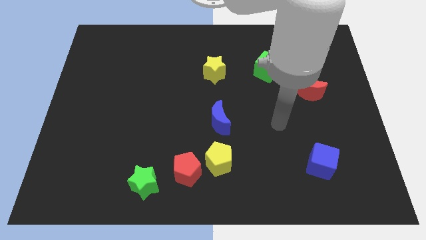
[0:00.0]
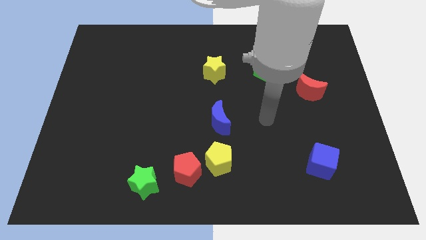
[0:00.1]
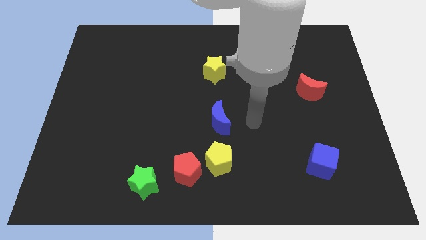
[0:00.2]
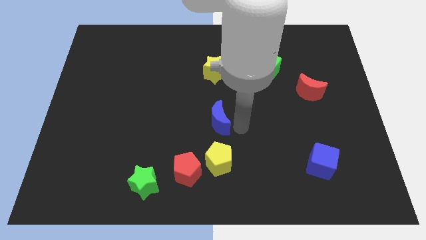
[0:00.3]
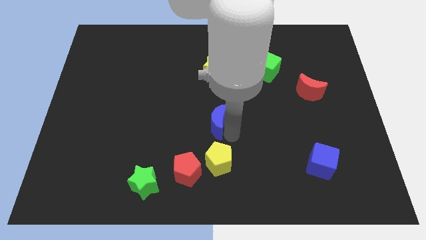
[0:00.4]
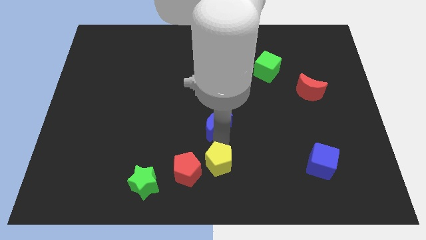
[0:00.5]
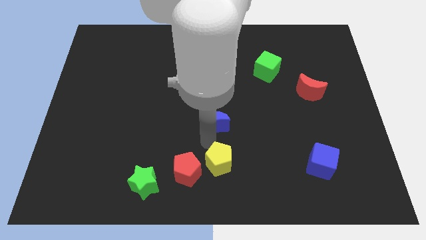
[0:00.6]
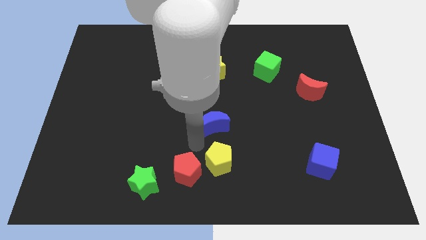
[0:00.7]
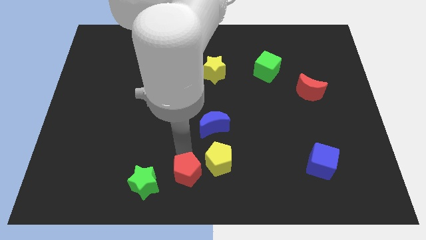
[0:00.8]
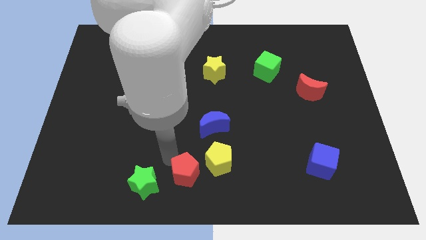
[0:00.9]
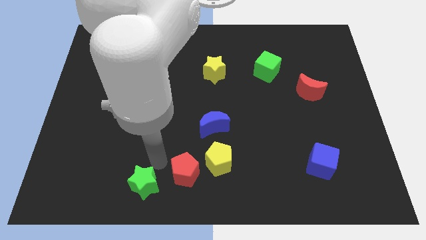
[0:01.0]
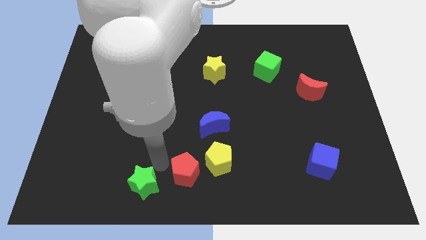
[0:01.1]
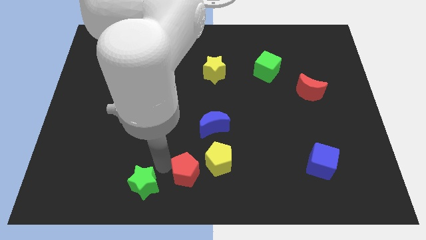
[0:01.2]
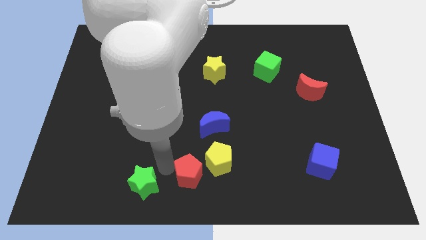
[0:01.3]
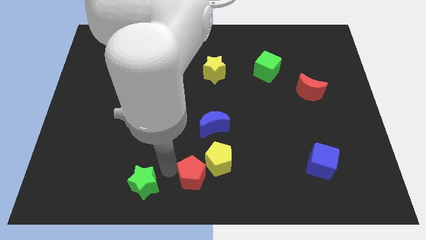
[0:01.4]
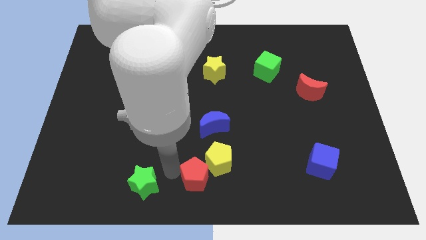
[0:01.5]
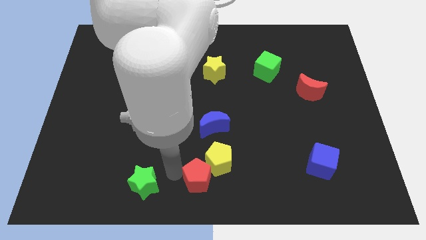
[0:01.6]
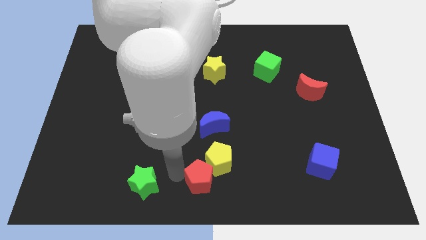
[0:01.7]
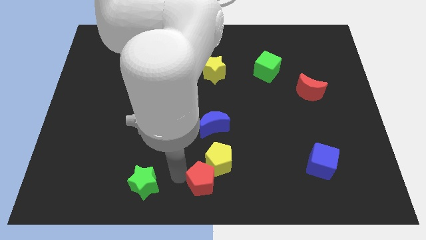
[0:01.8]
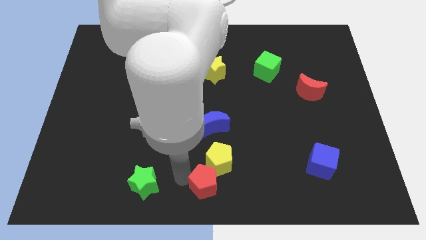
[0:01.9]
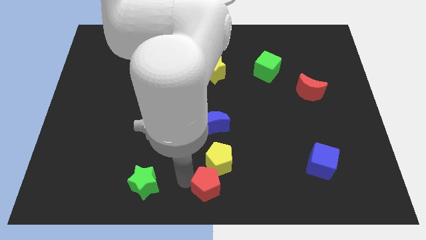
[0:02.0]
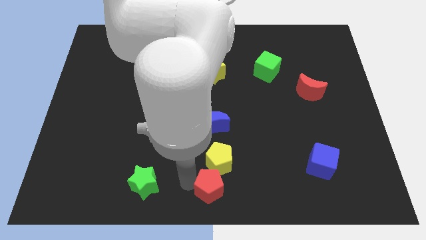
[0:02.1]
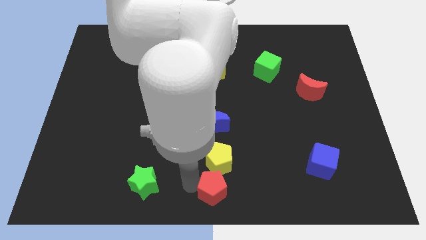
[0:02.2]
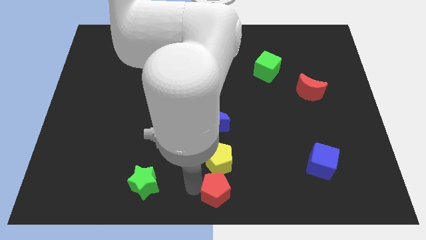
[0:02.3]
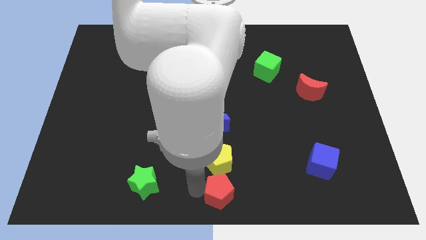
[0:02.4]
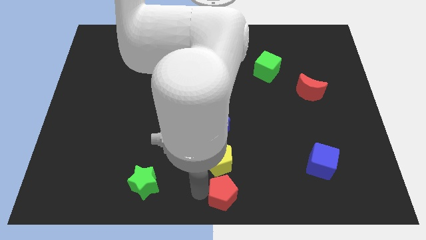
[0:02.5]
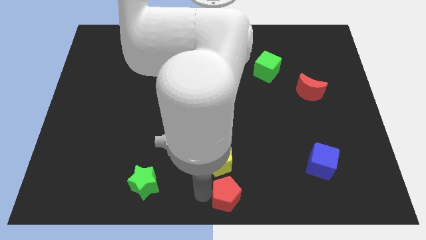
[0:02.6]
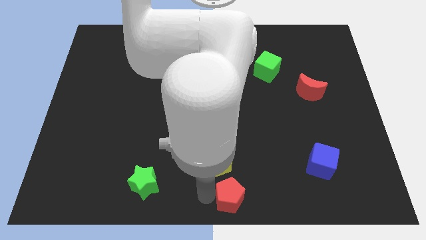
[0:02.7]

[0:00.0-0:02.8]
slide the red pentagon somewhat to the right

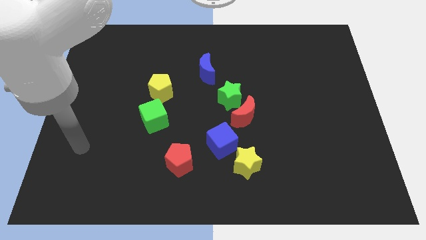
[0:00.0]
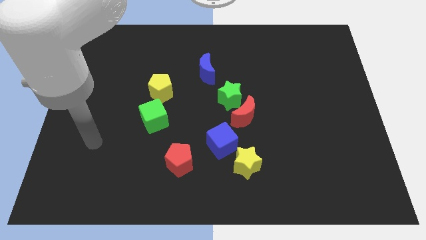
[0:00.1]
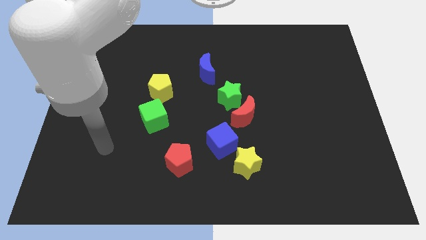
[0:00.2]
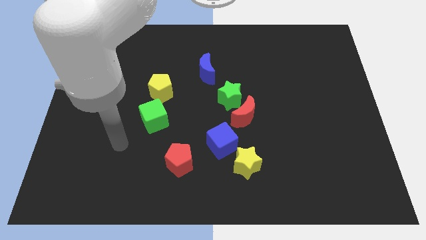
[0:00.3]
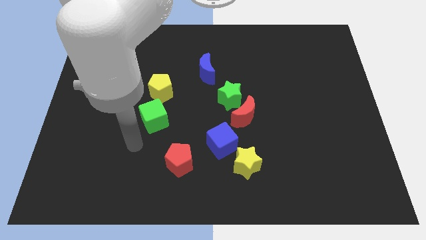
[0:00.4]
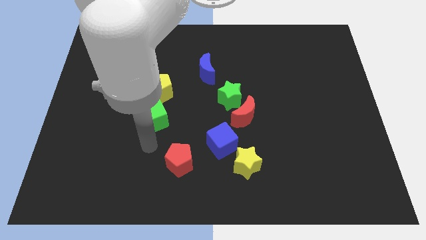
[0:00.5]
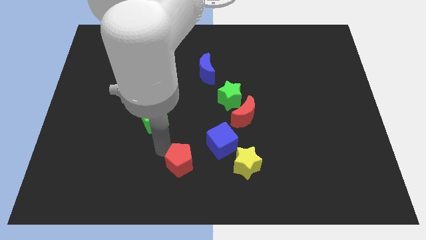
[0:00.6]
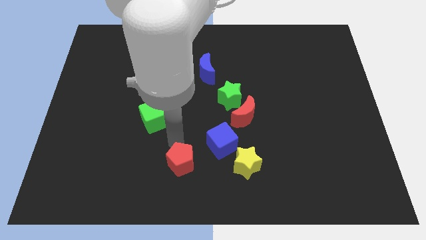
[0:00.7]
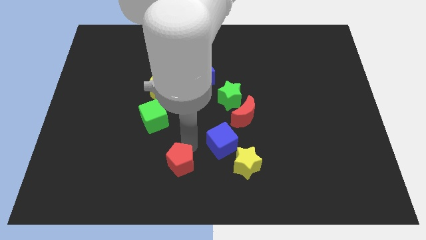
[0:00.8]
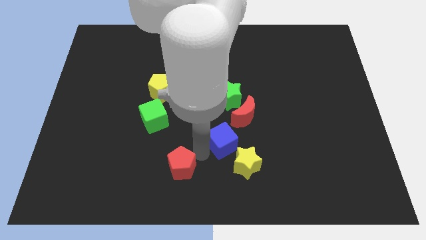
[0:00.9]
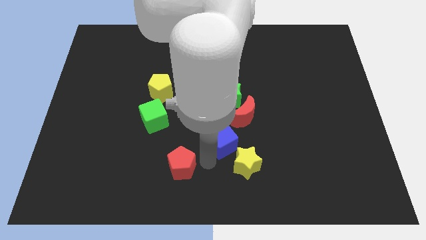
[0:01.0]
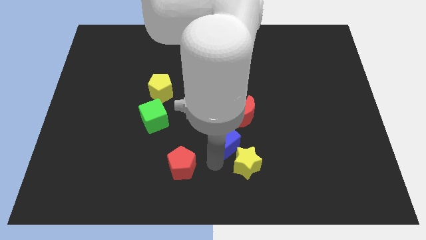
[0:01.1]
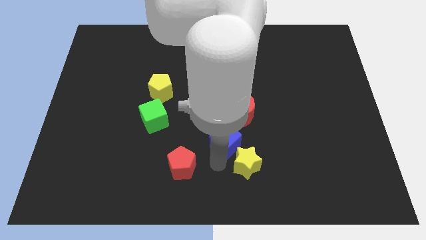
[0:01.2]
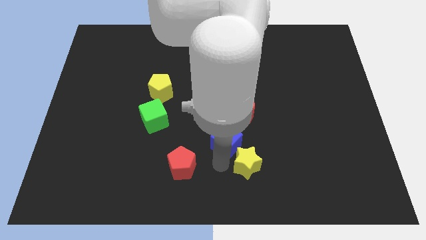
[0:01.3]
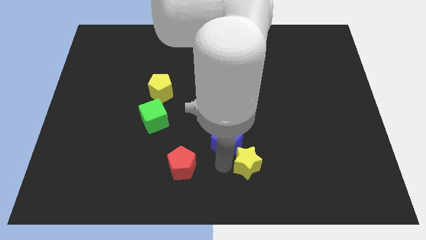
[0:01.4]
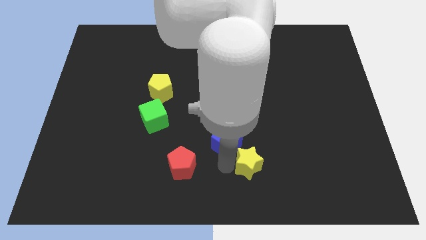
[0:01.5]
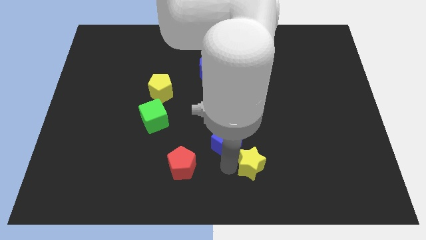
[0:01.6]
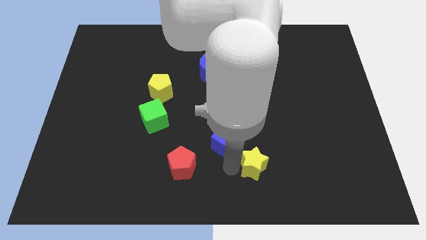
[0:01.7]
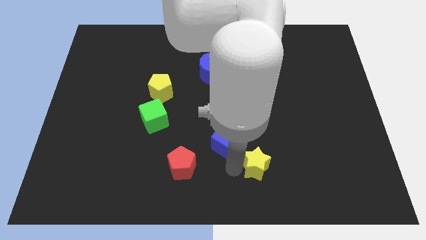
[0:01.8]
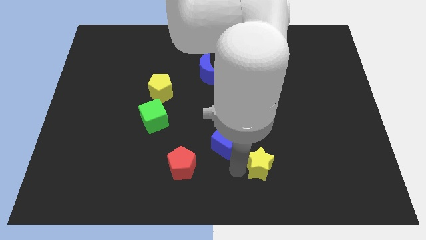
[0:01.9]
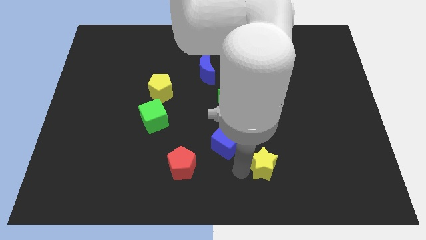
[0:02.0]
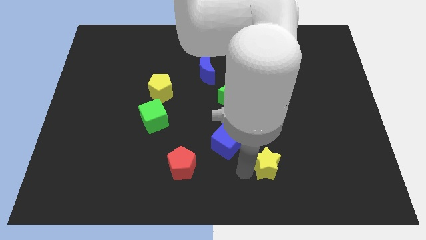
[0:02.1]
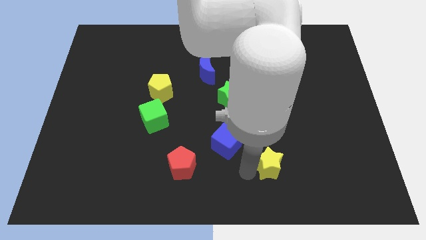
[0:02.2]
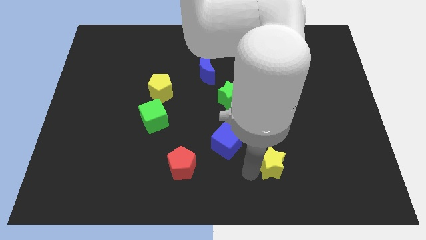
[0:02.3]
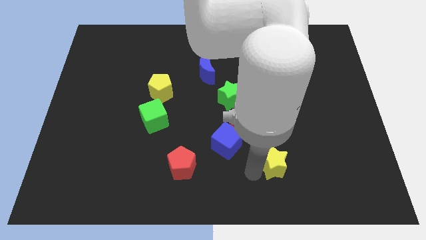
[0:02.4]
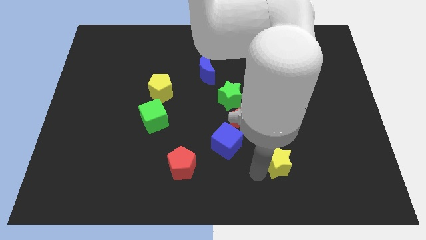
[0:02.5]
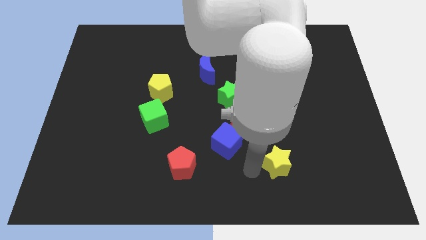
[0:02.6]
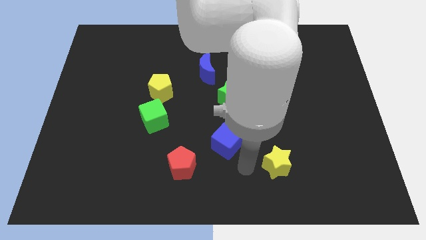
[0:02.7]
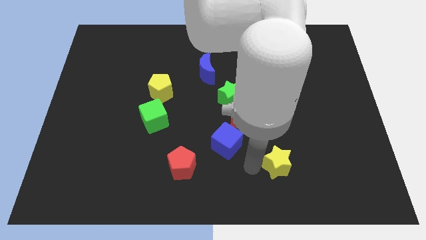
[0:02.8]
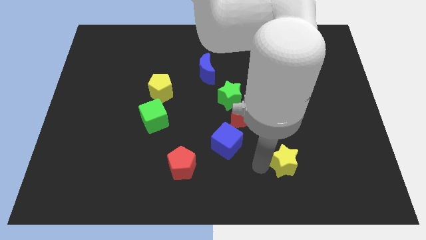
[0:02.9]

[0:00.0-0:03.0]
slightly move the yellow star right

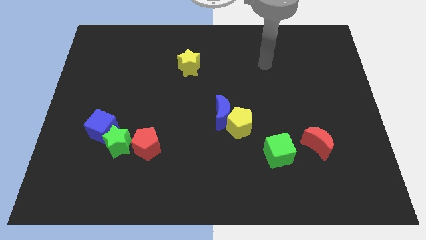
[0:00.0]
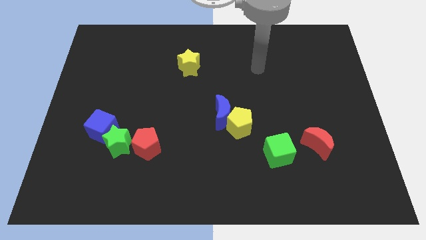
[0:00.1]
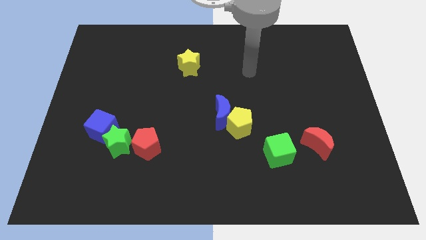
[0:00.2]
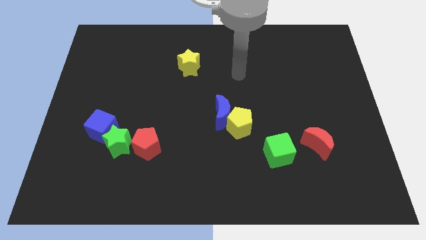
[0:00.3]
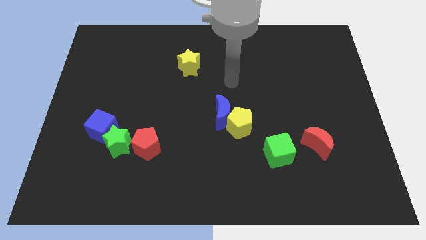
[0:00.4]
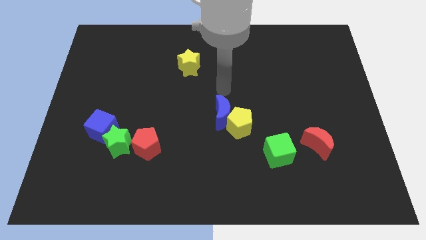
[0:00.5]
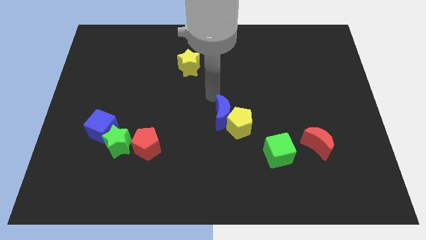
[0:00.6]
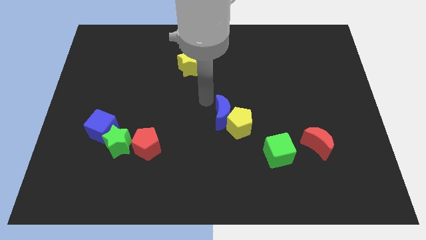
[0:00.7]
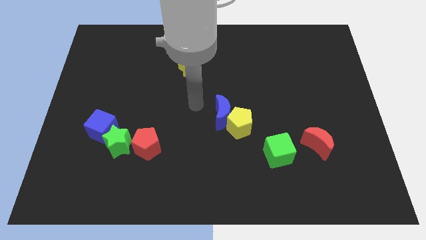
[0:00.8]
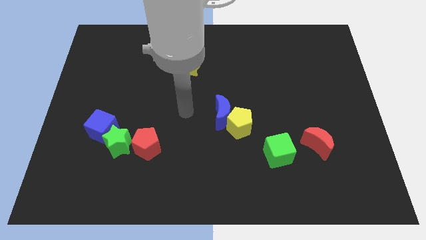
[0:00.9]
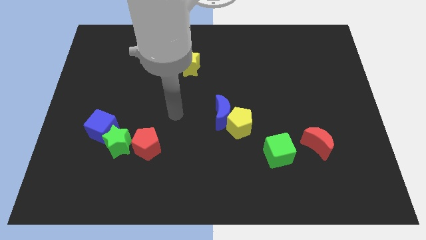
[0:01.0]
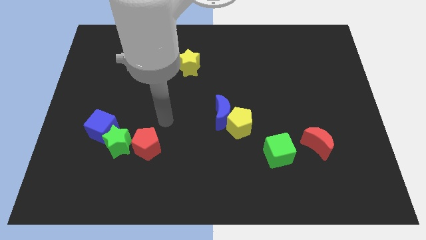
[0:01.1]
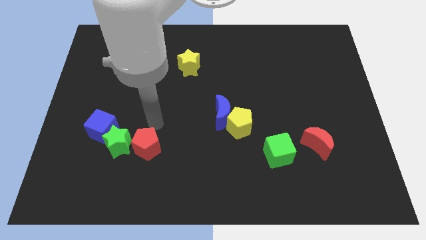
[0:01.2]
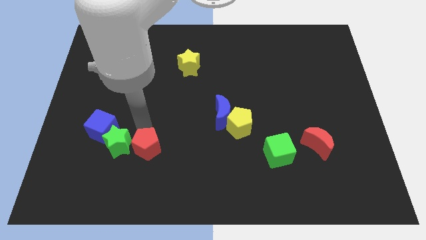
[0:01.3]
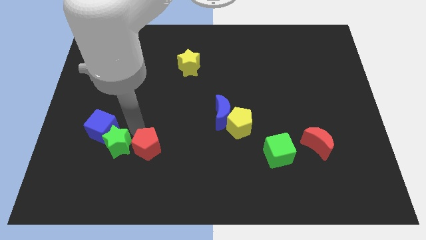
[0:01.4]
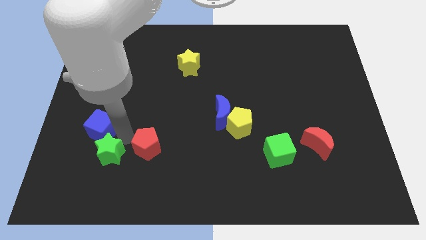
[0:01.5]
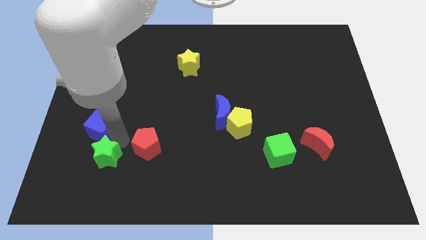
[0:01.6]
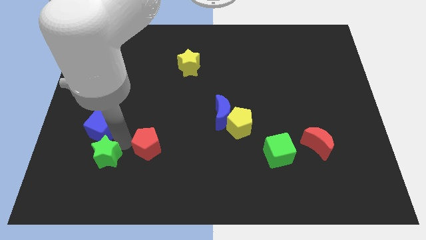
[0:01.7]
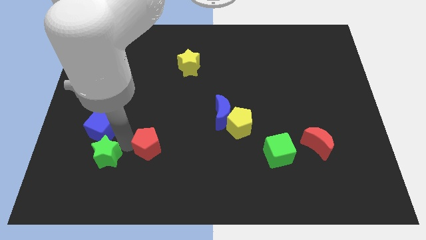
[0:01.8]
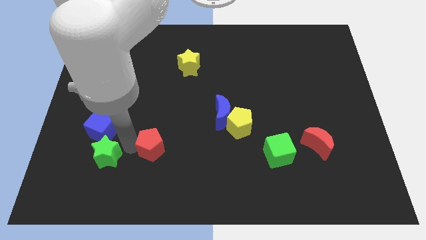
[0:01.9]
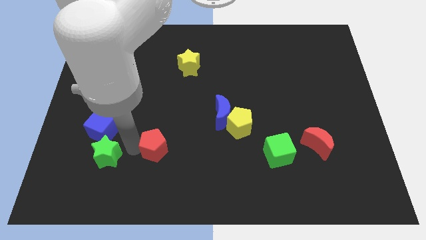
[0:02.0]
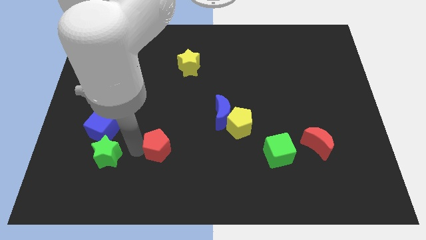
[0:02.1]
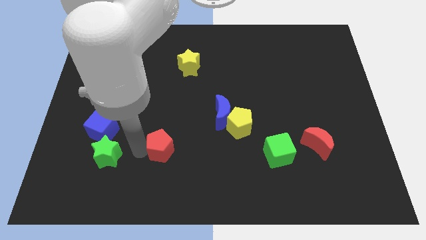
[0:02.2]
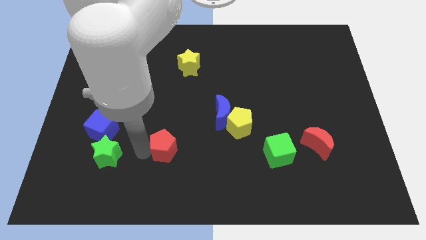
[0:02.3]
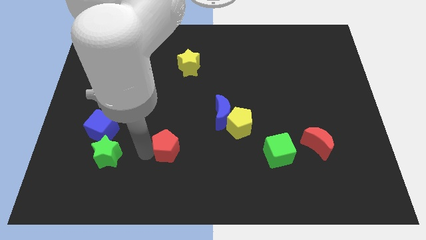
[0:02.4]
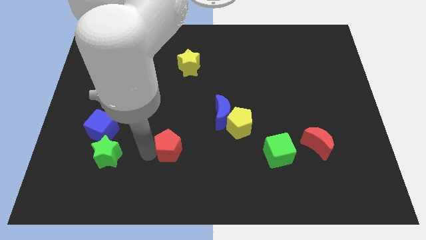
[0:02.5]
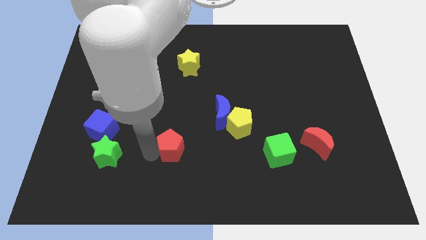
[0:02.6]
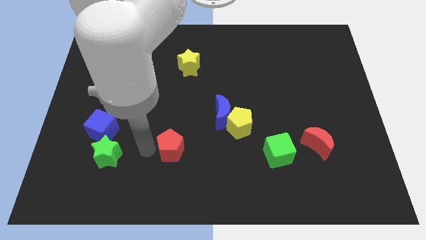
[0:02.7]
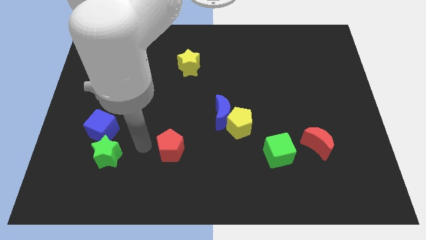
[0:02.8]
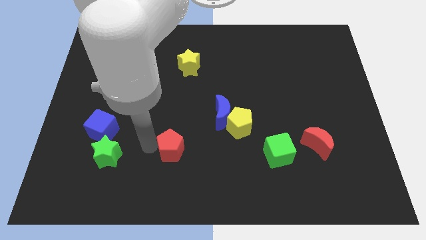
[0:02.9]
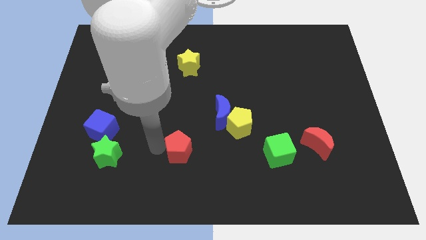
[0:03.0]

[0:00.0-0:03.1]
slightly push the red pentagon to the right
